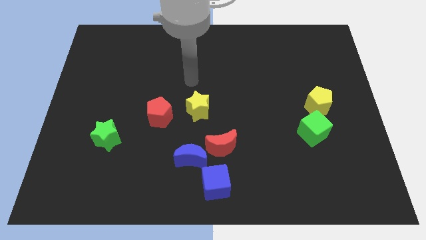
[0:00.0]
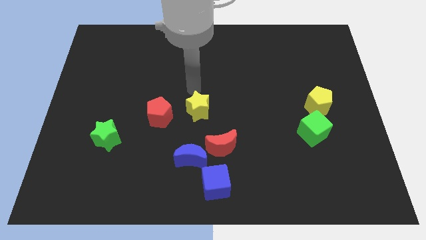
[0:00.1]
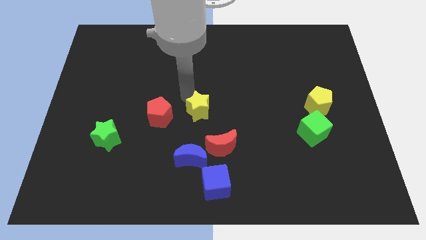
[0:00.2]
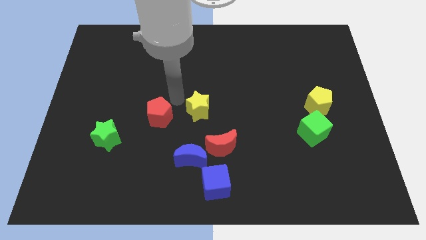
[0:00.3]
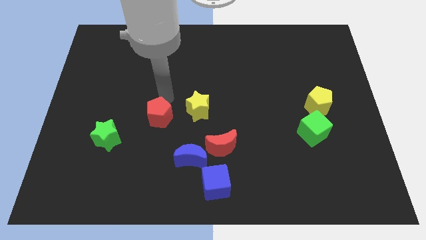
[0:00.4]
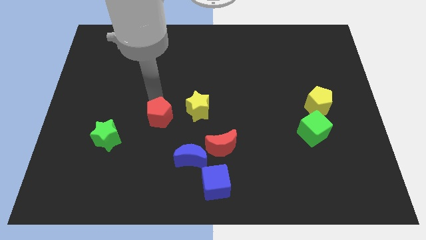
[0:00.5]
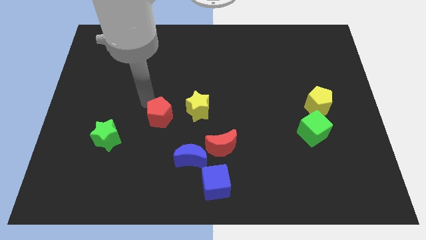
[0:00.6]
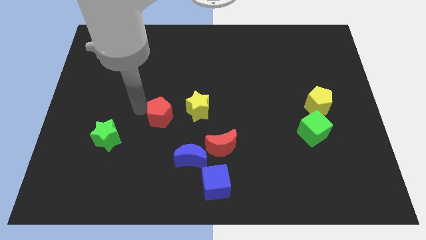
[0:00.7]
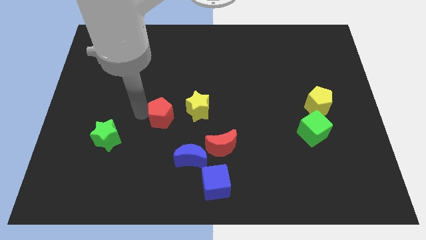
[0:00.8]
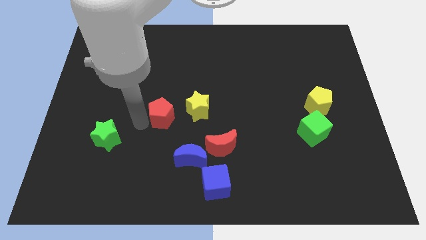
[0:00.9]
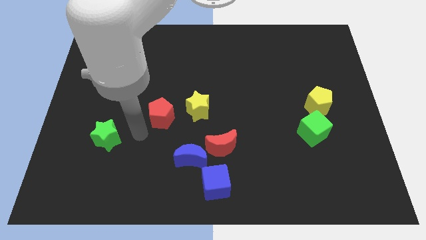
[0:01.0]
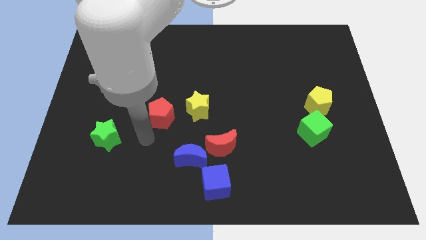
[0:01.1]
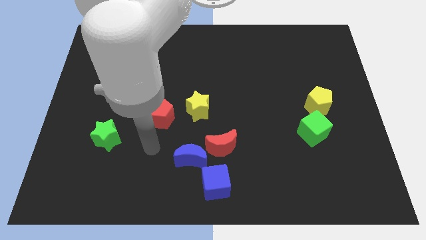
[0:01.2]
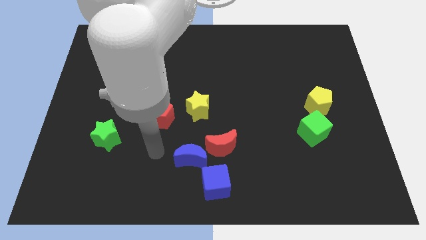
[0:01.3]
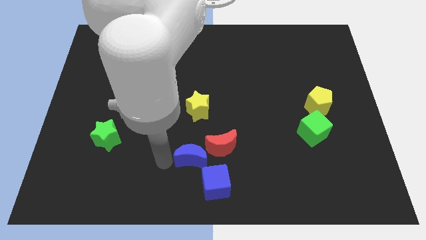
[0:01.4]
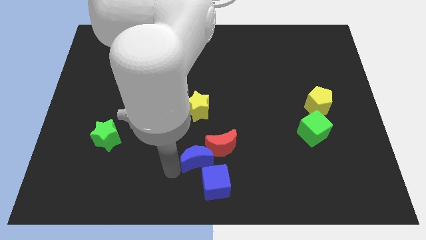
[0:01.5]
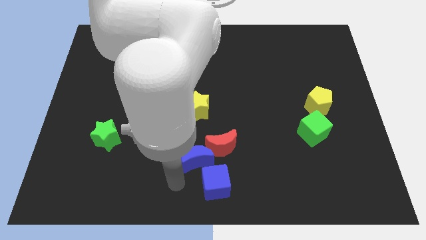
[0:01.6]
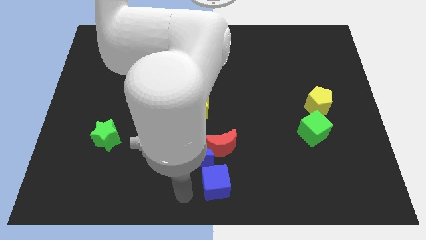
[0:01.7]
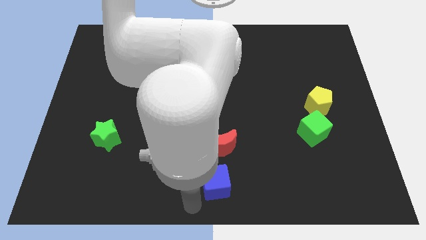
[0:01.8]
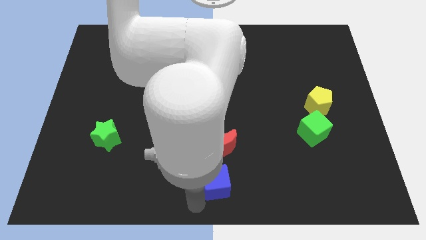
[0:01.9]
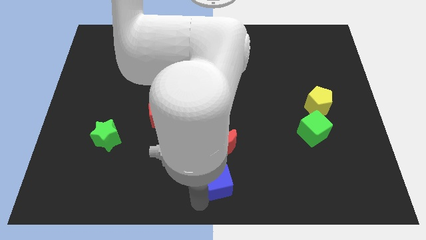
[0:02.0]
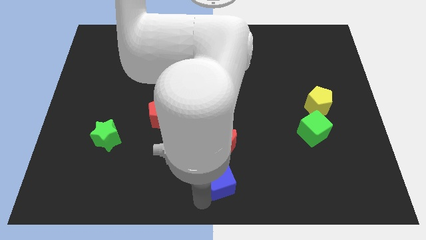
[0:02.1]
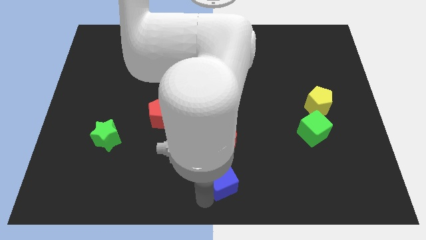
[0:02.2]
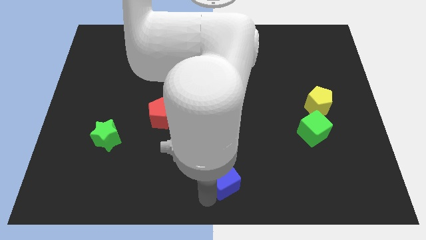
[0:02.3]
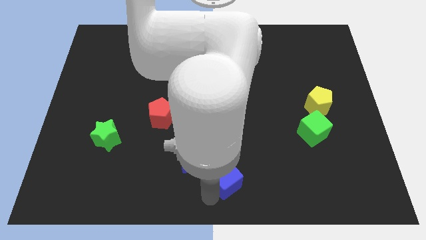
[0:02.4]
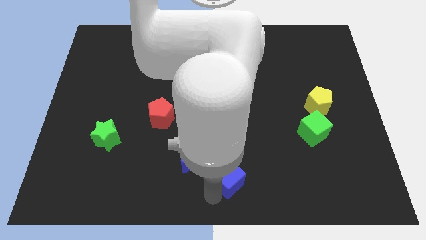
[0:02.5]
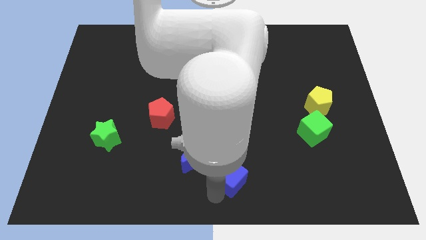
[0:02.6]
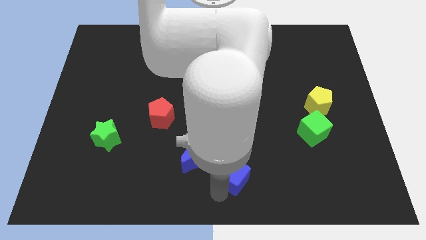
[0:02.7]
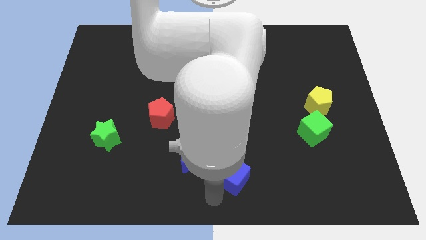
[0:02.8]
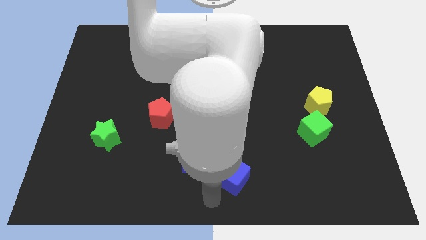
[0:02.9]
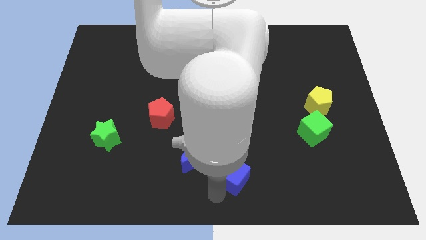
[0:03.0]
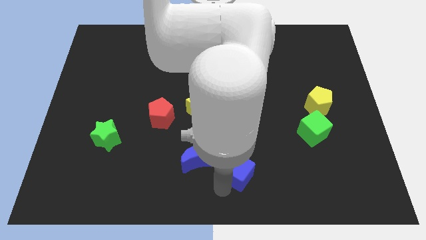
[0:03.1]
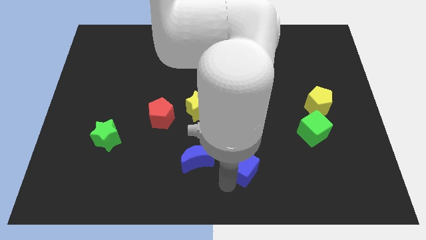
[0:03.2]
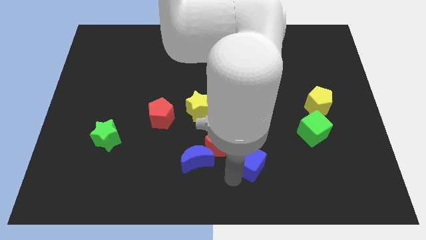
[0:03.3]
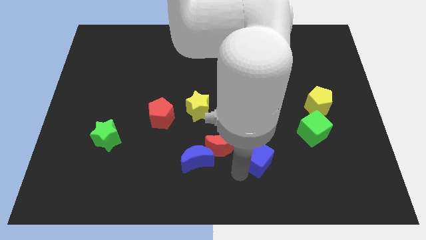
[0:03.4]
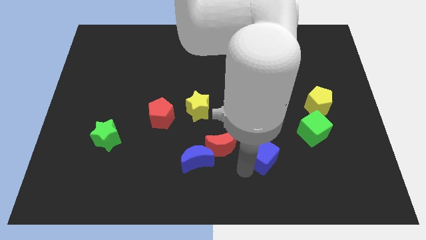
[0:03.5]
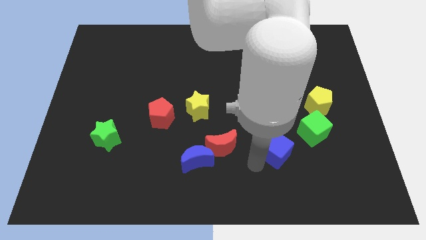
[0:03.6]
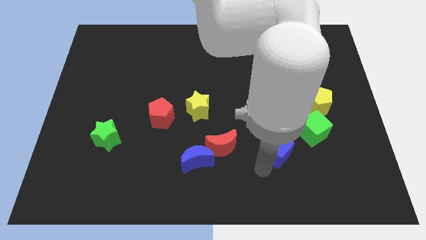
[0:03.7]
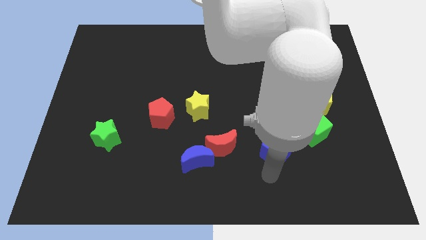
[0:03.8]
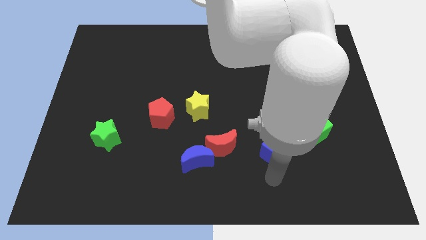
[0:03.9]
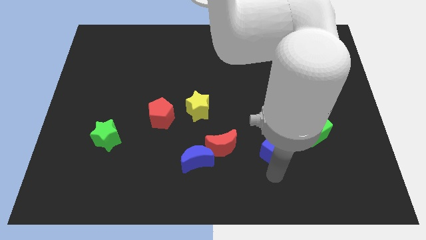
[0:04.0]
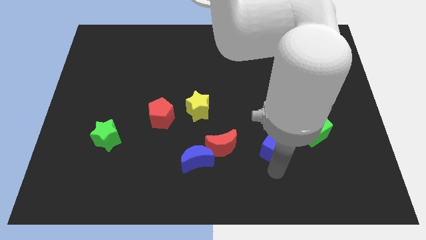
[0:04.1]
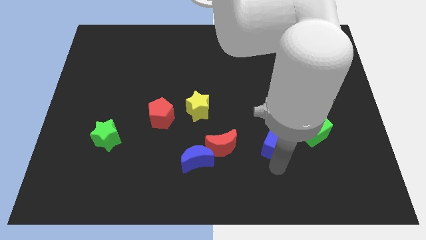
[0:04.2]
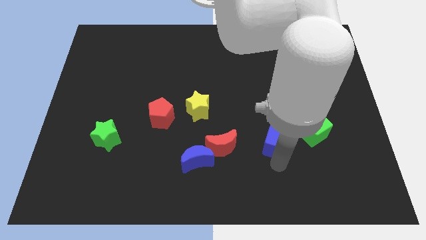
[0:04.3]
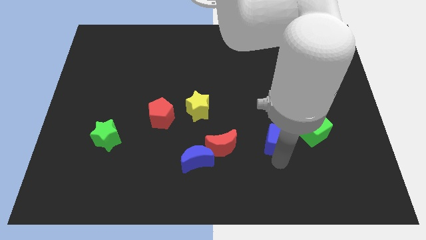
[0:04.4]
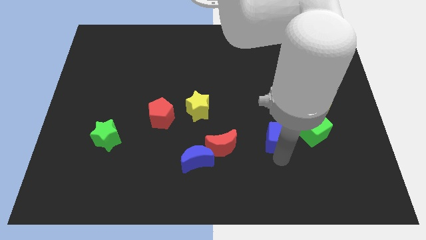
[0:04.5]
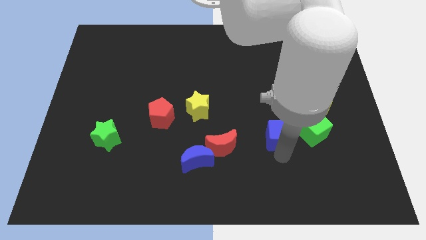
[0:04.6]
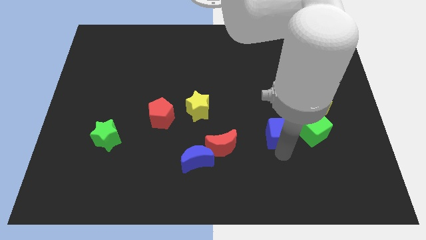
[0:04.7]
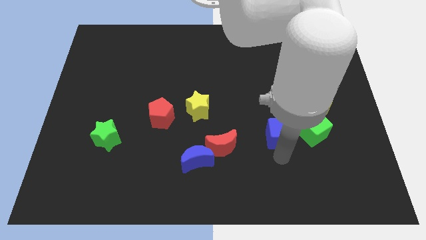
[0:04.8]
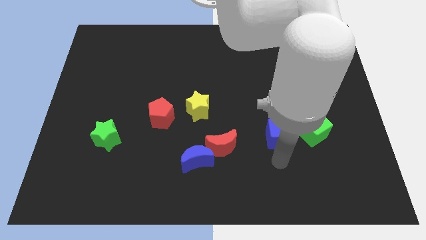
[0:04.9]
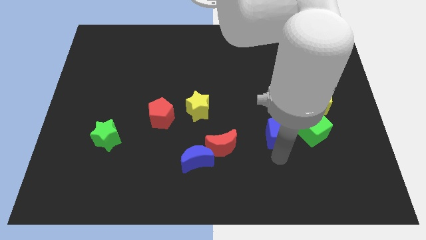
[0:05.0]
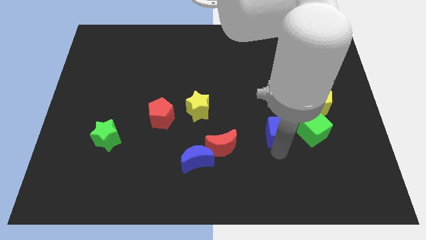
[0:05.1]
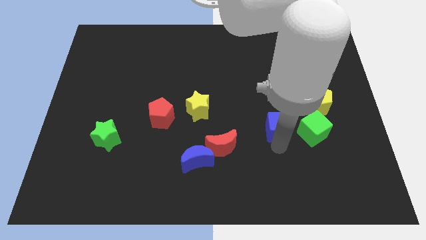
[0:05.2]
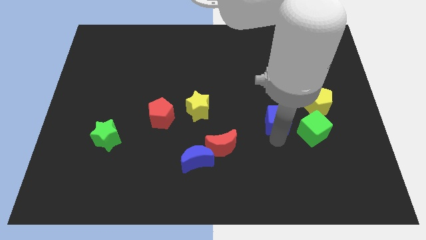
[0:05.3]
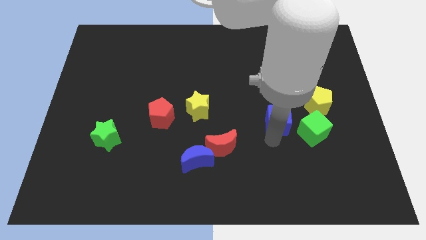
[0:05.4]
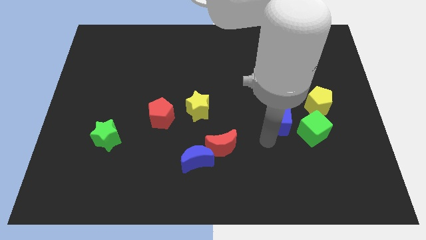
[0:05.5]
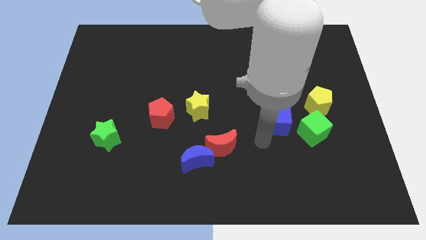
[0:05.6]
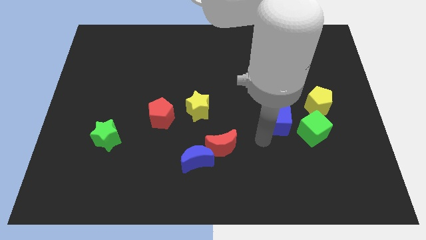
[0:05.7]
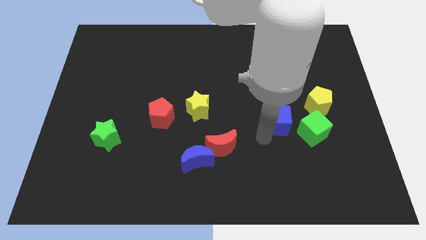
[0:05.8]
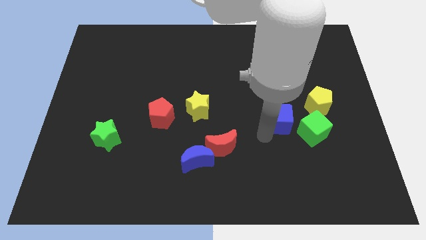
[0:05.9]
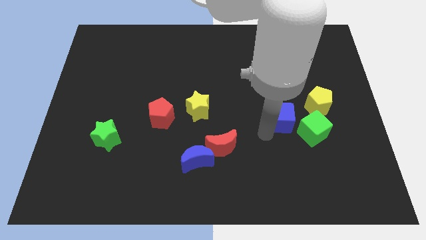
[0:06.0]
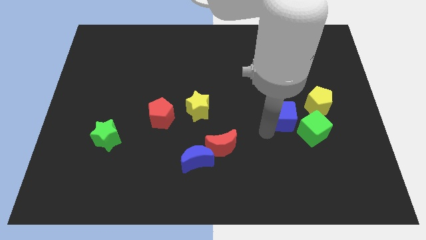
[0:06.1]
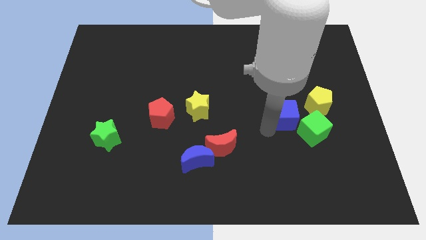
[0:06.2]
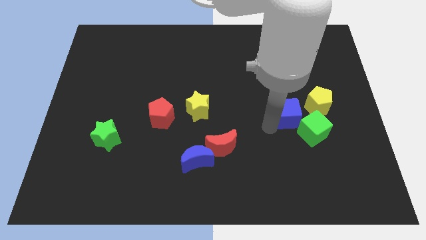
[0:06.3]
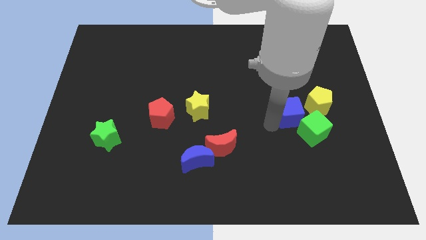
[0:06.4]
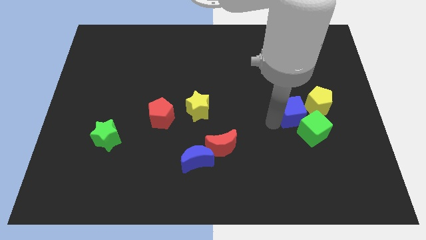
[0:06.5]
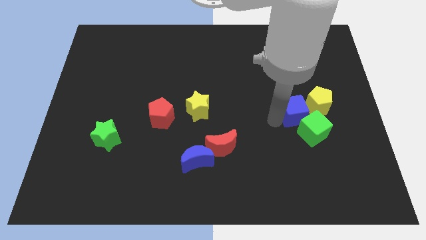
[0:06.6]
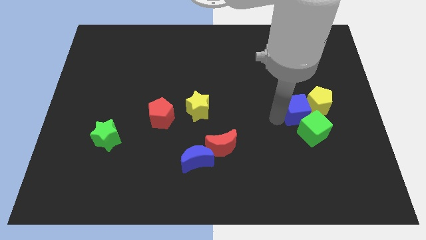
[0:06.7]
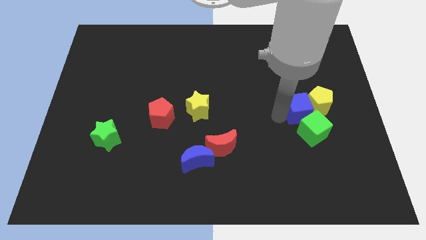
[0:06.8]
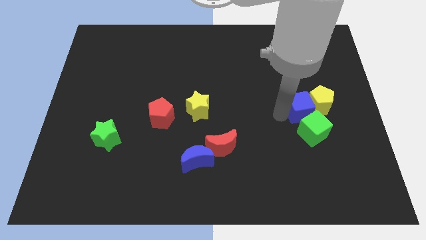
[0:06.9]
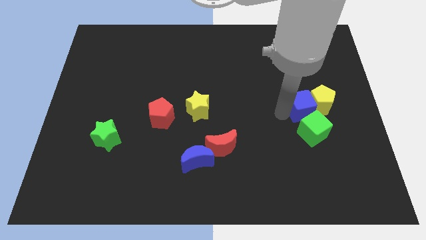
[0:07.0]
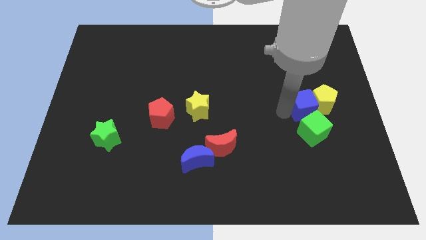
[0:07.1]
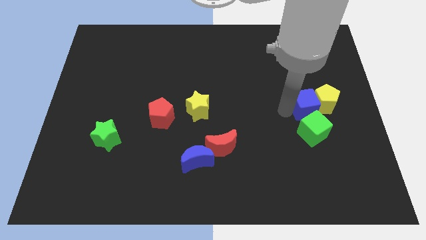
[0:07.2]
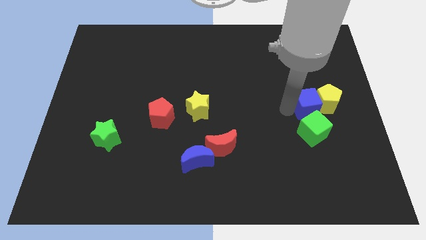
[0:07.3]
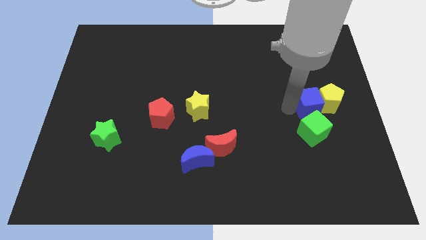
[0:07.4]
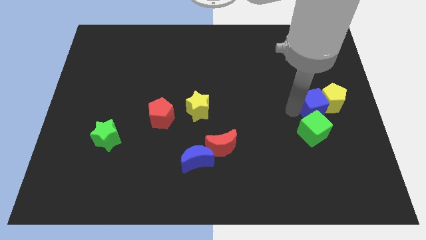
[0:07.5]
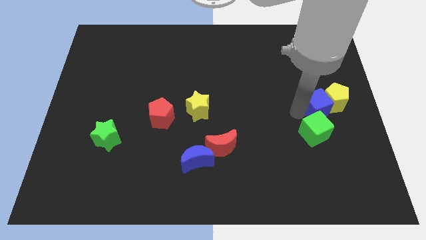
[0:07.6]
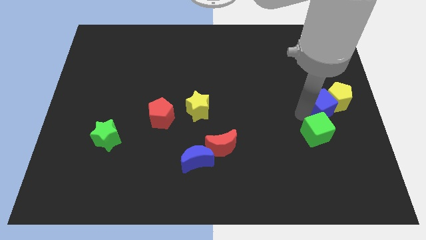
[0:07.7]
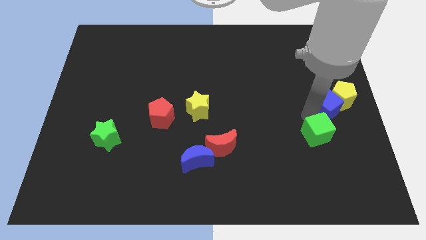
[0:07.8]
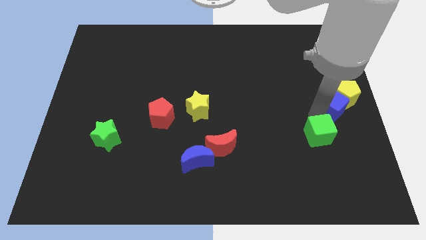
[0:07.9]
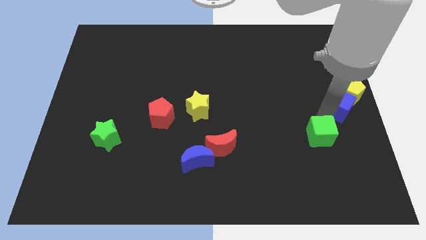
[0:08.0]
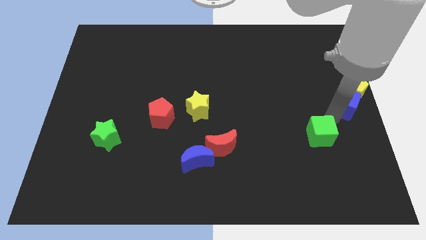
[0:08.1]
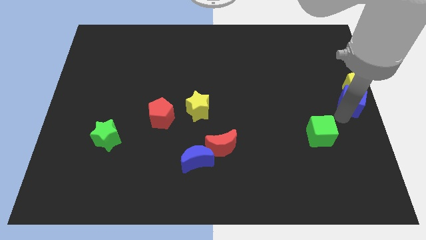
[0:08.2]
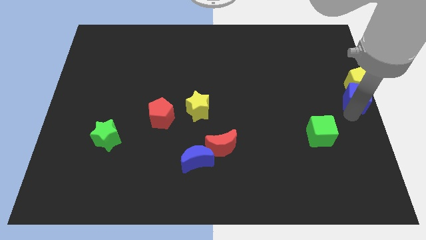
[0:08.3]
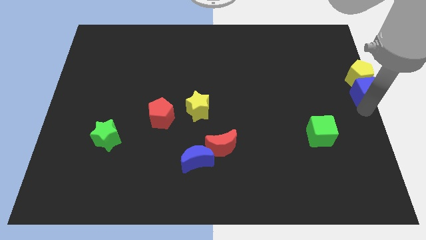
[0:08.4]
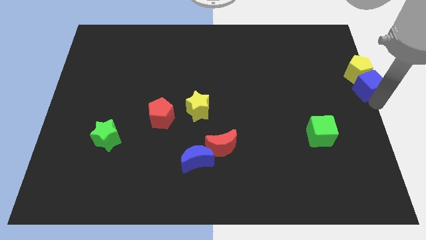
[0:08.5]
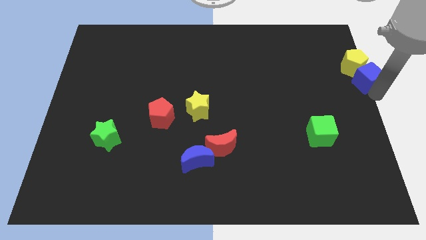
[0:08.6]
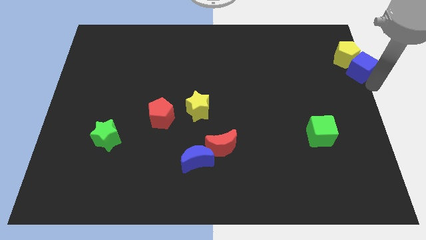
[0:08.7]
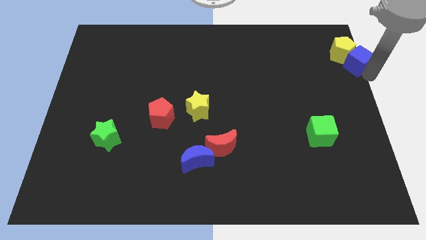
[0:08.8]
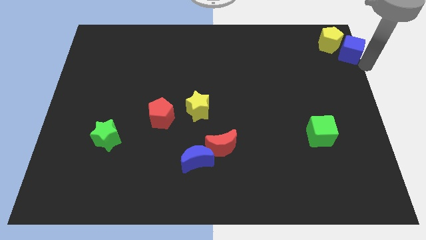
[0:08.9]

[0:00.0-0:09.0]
push the blue cube to the upper right corner
